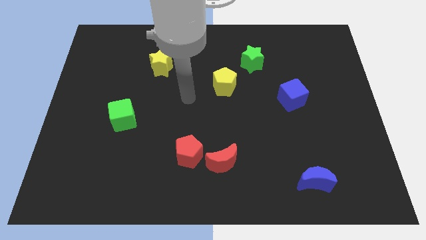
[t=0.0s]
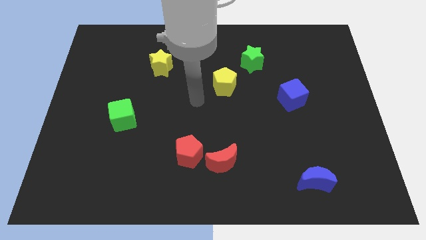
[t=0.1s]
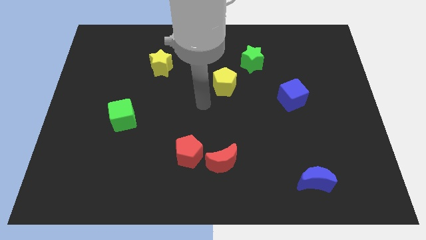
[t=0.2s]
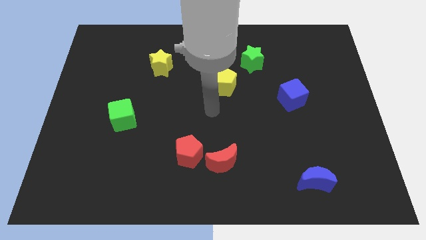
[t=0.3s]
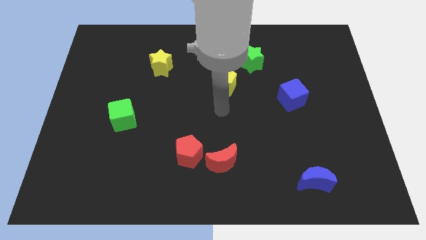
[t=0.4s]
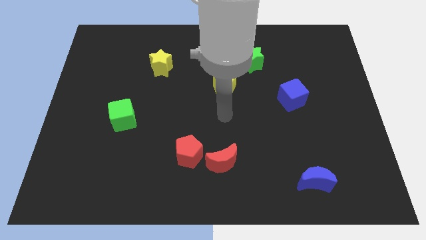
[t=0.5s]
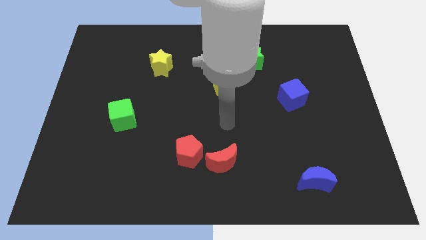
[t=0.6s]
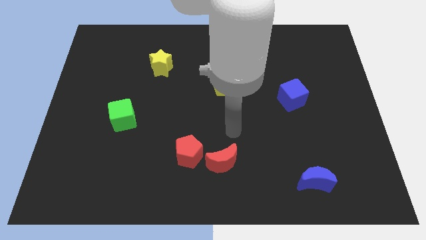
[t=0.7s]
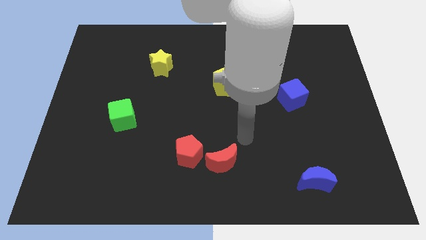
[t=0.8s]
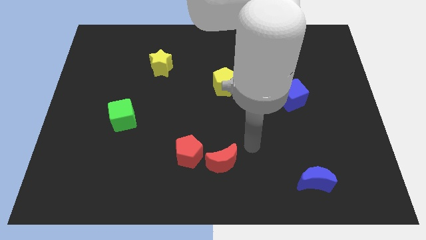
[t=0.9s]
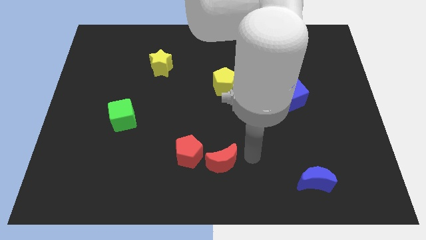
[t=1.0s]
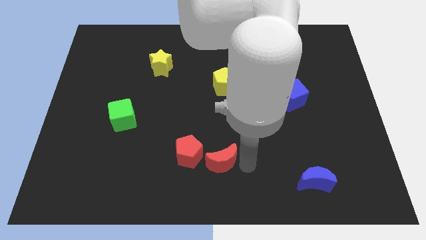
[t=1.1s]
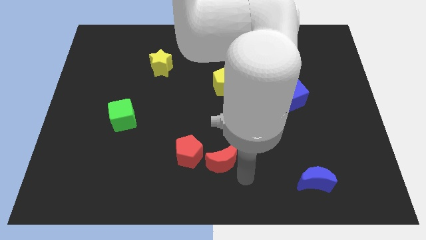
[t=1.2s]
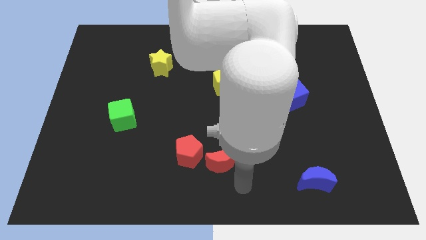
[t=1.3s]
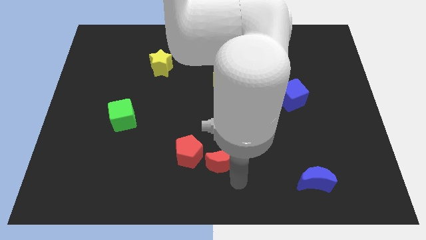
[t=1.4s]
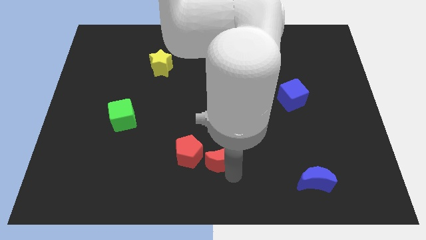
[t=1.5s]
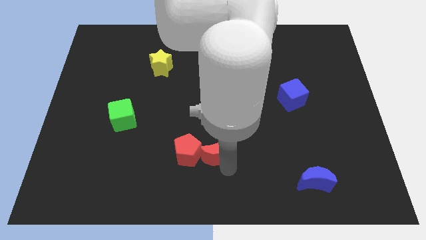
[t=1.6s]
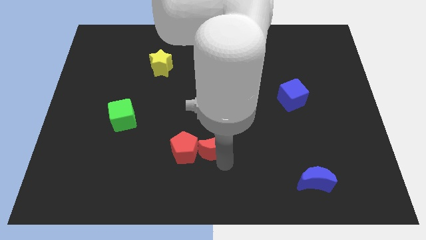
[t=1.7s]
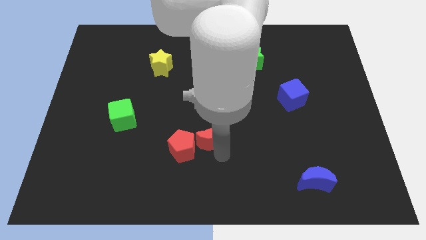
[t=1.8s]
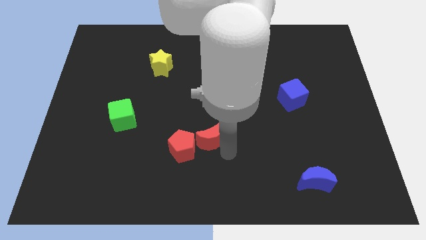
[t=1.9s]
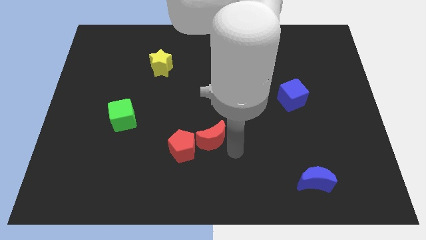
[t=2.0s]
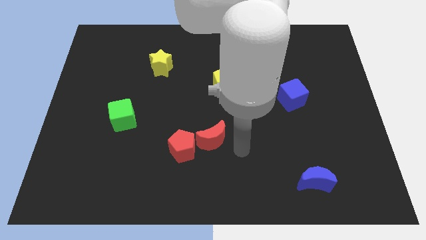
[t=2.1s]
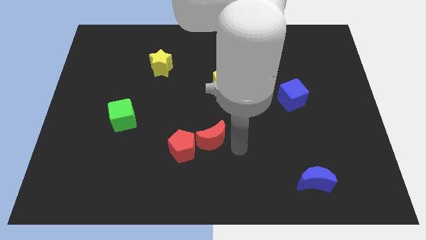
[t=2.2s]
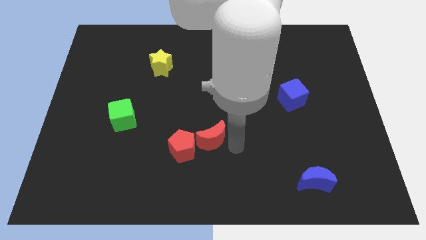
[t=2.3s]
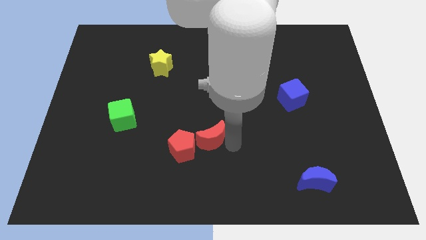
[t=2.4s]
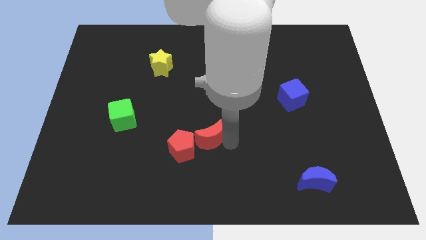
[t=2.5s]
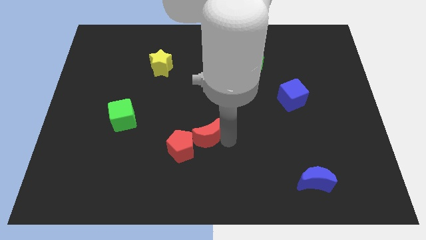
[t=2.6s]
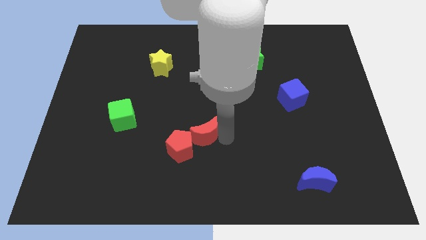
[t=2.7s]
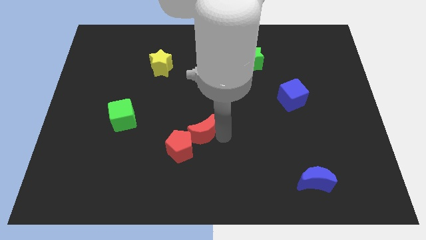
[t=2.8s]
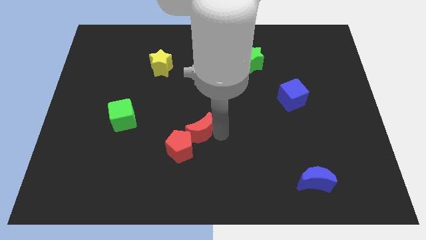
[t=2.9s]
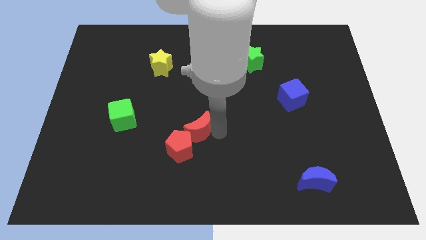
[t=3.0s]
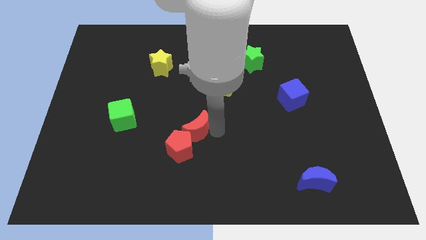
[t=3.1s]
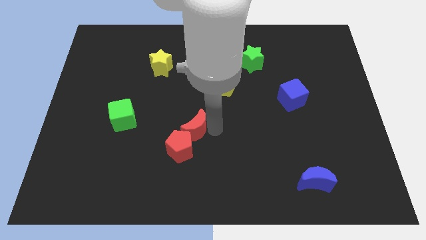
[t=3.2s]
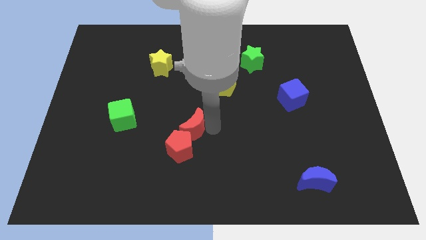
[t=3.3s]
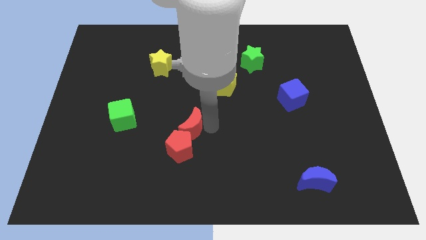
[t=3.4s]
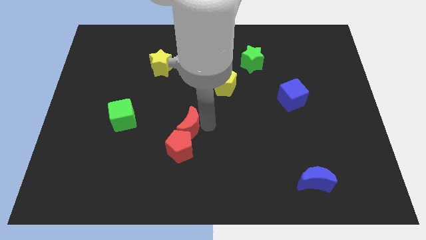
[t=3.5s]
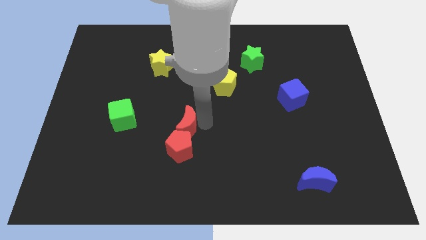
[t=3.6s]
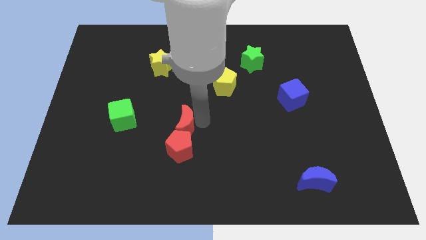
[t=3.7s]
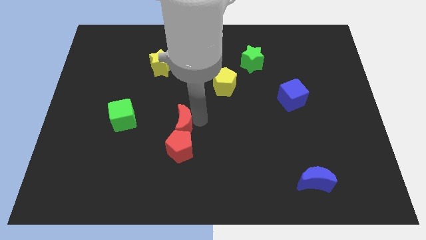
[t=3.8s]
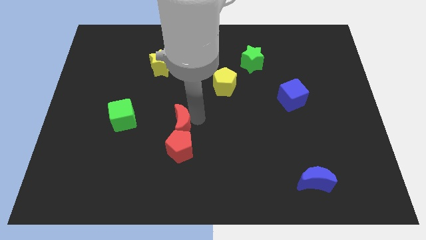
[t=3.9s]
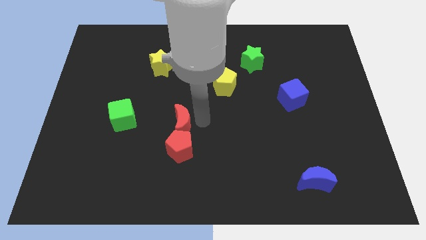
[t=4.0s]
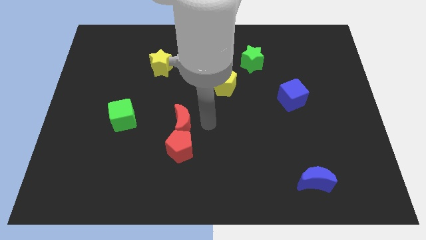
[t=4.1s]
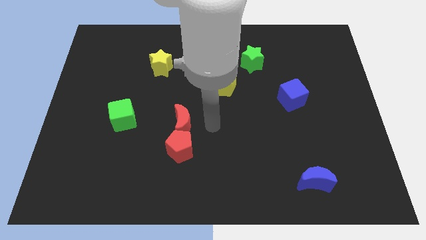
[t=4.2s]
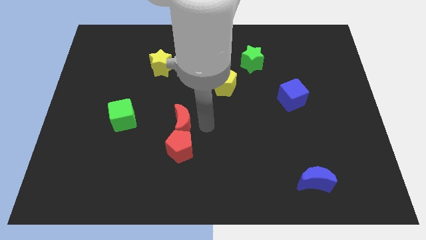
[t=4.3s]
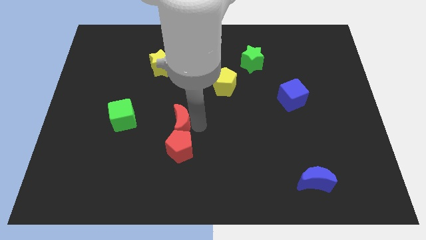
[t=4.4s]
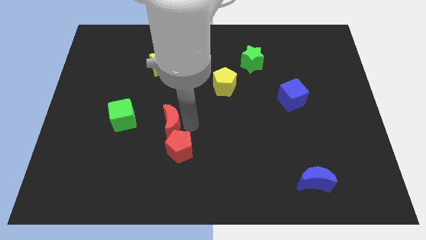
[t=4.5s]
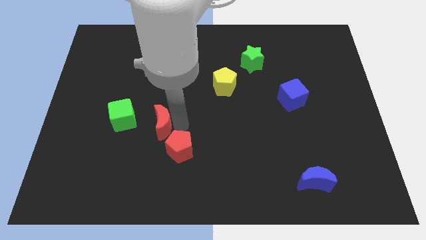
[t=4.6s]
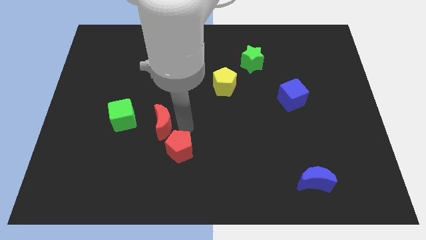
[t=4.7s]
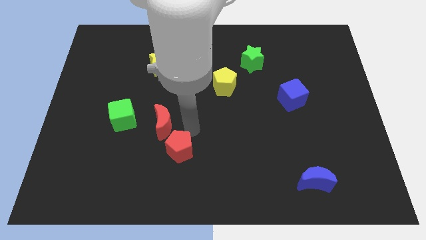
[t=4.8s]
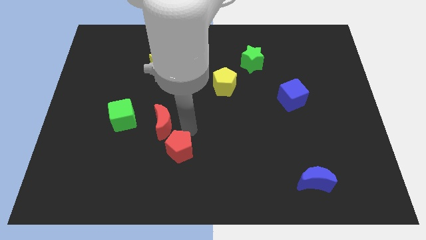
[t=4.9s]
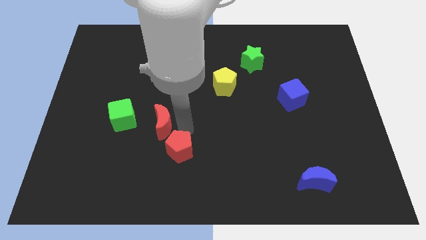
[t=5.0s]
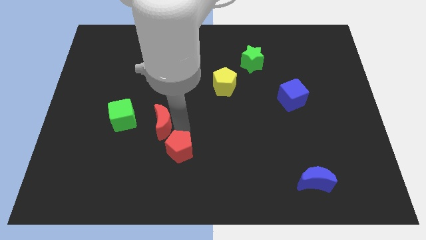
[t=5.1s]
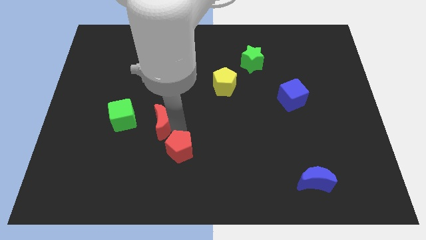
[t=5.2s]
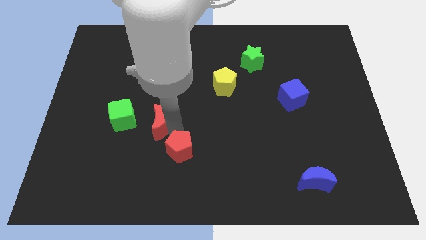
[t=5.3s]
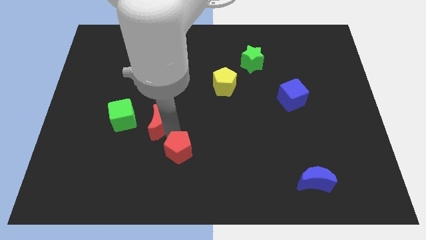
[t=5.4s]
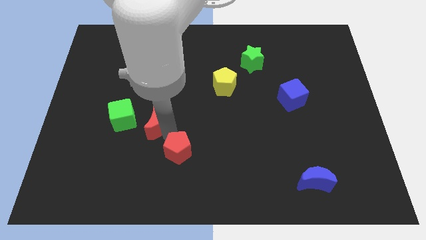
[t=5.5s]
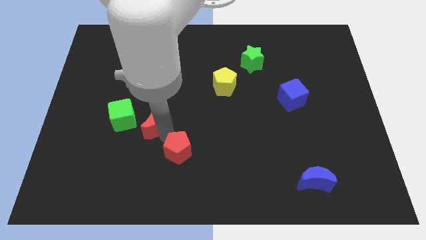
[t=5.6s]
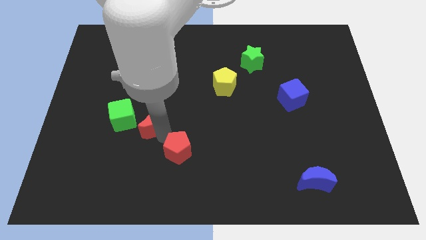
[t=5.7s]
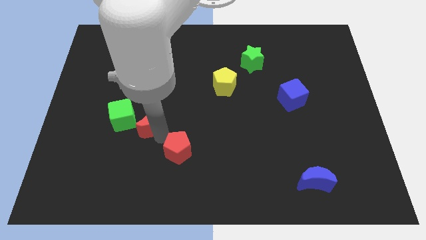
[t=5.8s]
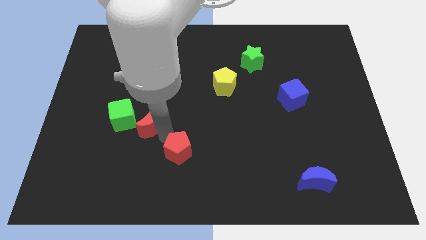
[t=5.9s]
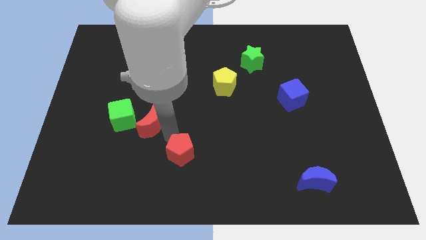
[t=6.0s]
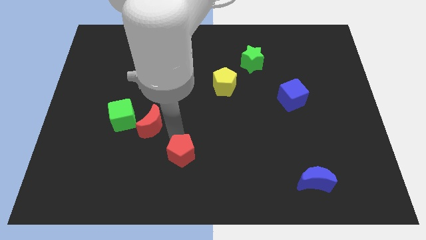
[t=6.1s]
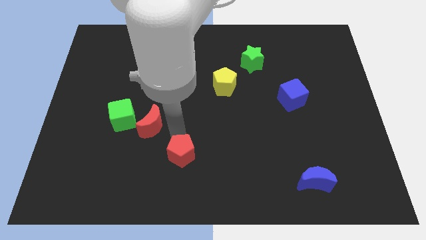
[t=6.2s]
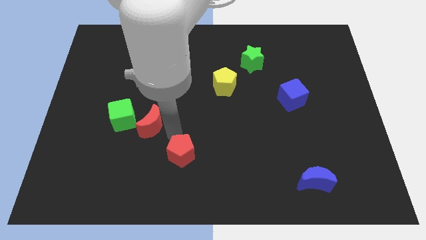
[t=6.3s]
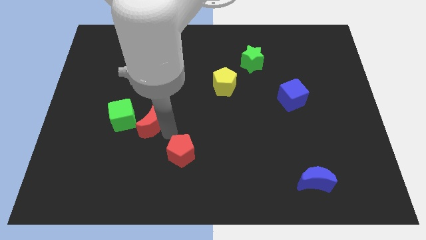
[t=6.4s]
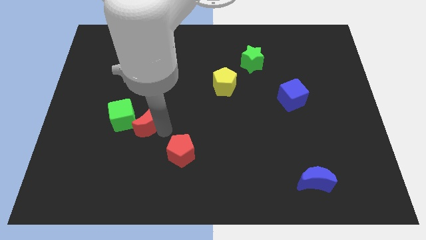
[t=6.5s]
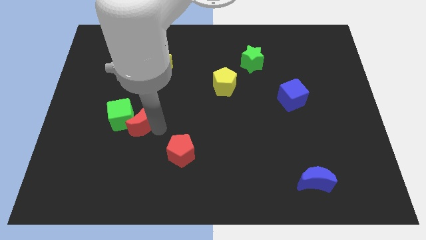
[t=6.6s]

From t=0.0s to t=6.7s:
move the red moon to the green cube

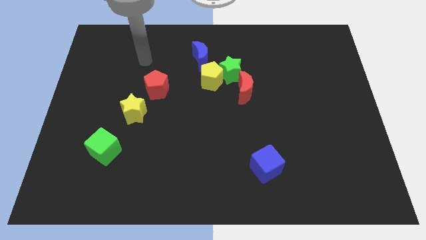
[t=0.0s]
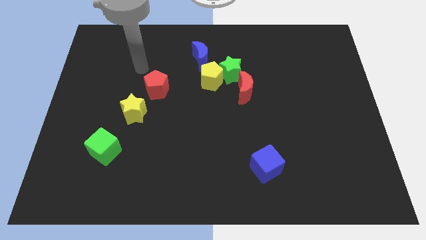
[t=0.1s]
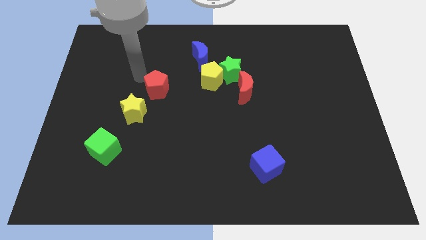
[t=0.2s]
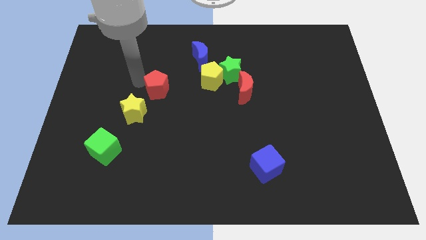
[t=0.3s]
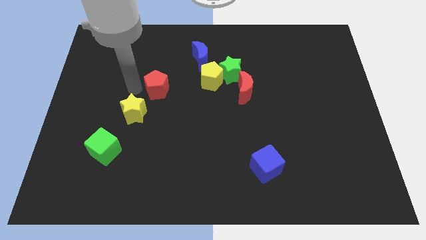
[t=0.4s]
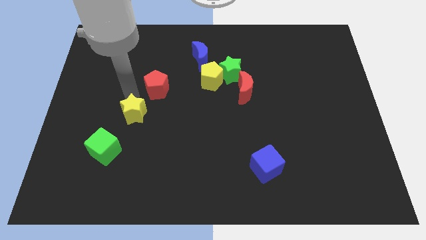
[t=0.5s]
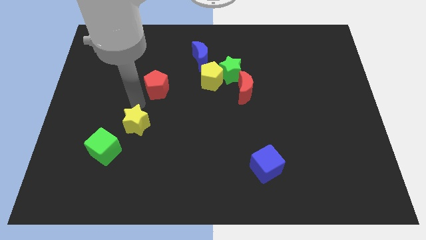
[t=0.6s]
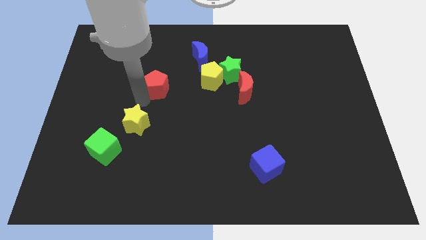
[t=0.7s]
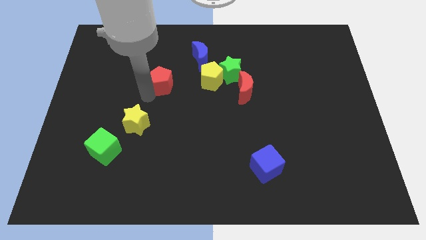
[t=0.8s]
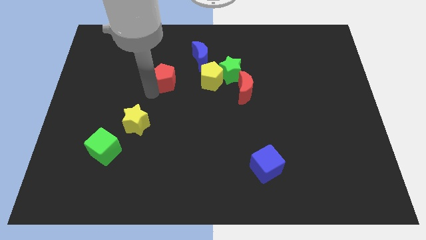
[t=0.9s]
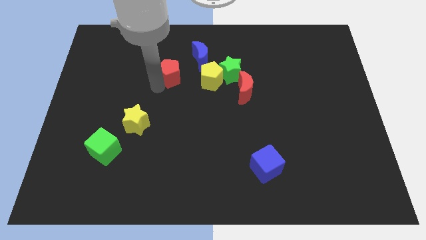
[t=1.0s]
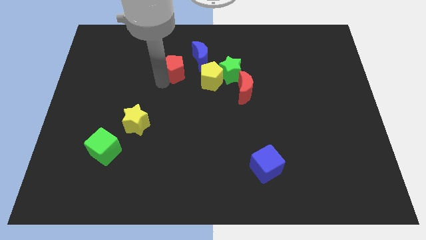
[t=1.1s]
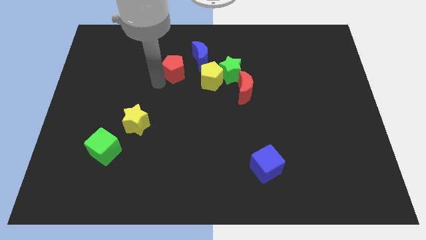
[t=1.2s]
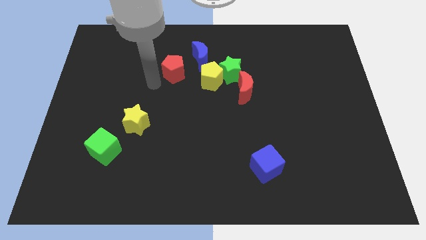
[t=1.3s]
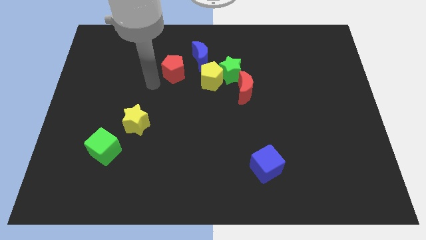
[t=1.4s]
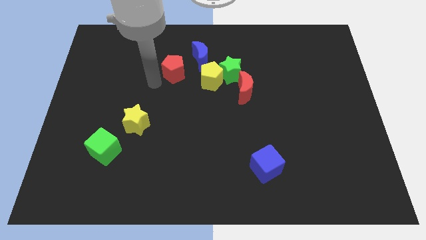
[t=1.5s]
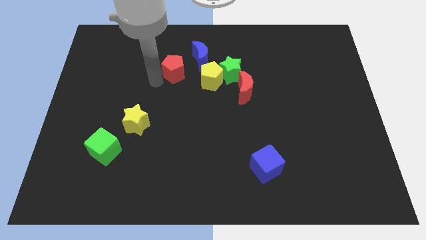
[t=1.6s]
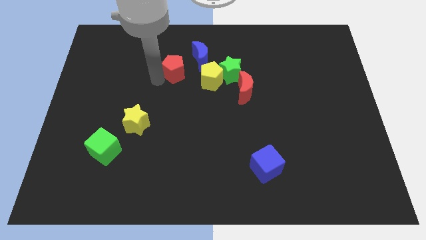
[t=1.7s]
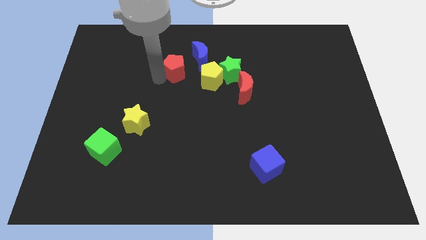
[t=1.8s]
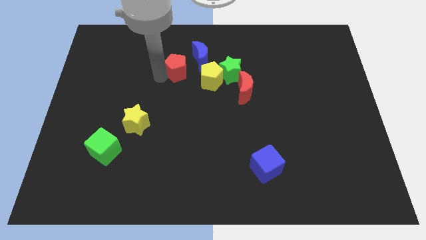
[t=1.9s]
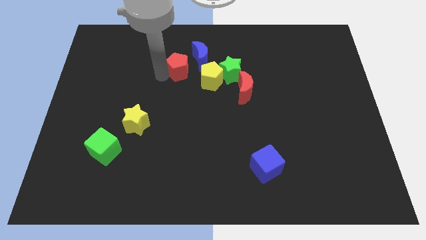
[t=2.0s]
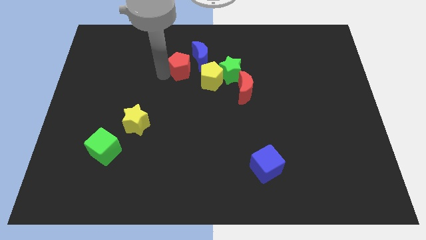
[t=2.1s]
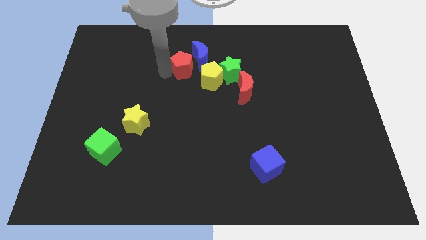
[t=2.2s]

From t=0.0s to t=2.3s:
move the red pentagon next to the blue moon
